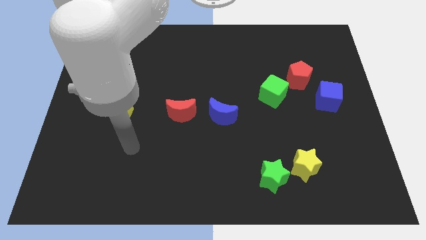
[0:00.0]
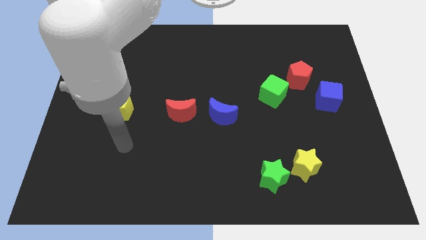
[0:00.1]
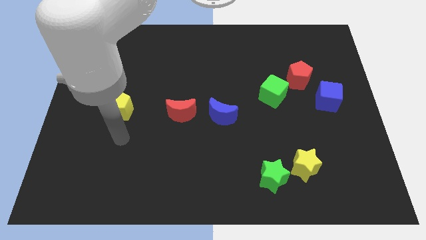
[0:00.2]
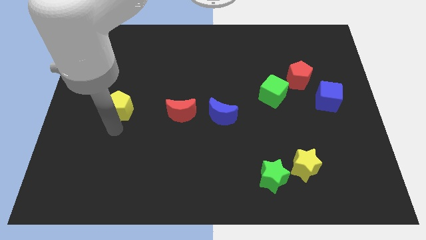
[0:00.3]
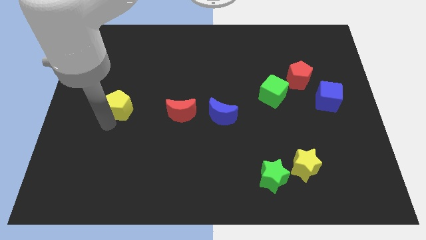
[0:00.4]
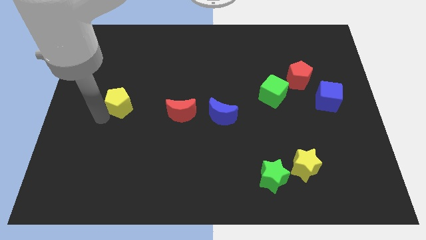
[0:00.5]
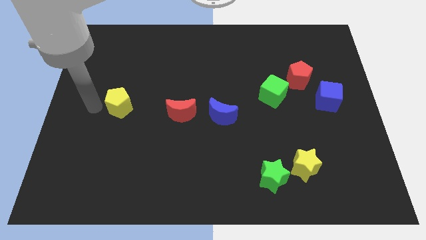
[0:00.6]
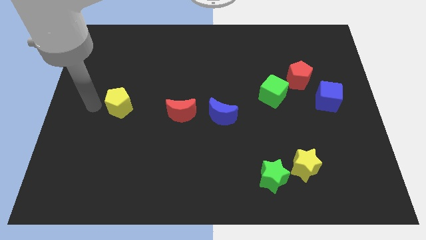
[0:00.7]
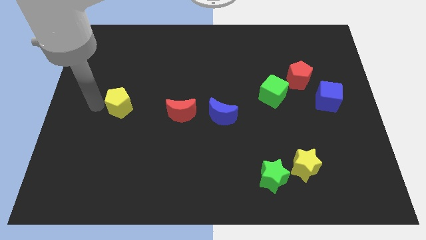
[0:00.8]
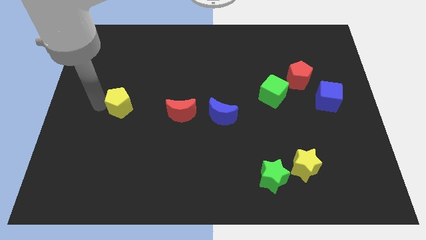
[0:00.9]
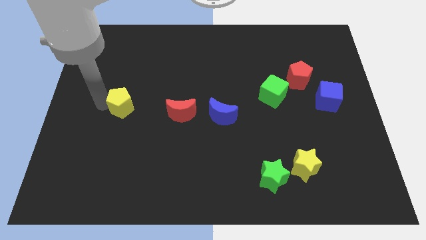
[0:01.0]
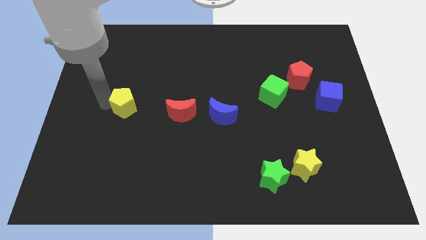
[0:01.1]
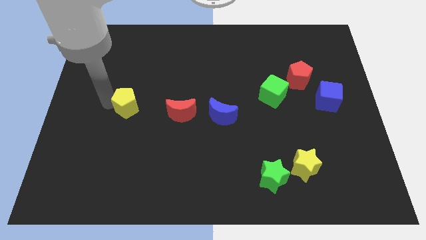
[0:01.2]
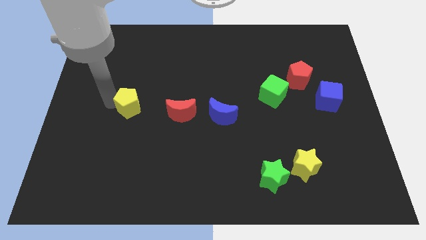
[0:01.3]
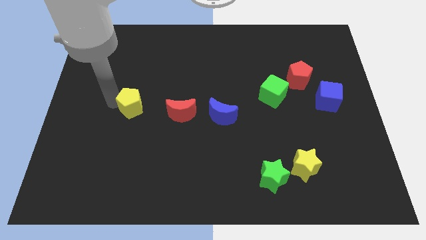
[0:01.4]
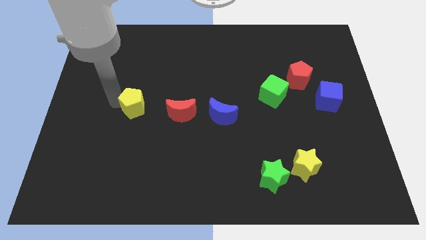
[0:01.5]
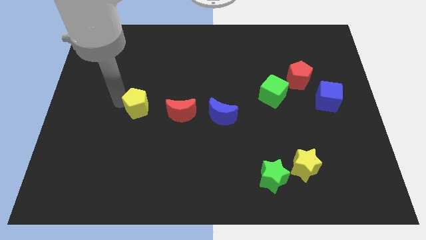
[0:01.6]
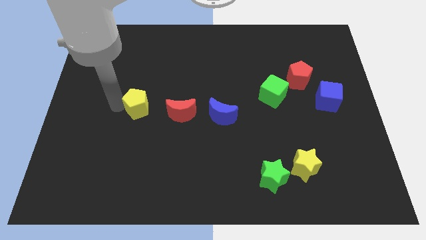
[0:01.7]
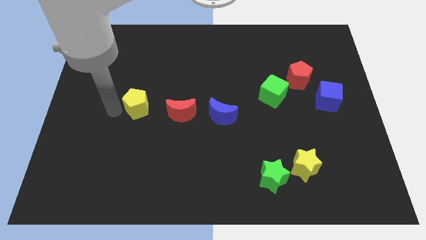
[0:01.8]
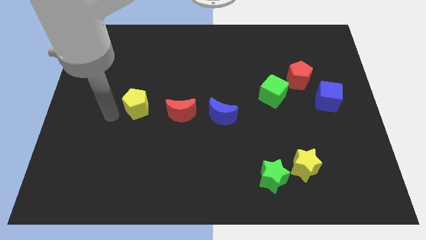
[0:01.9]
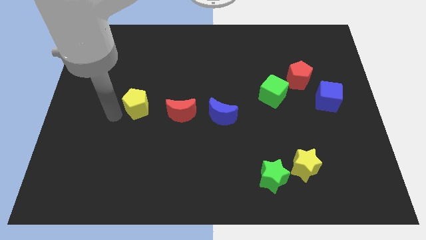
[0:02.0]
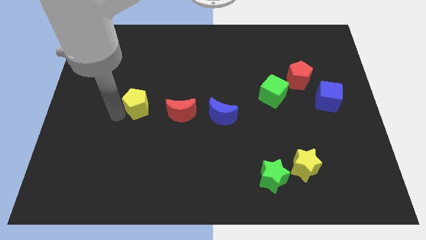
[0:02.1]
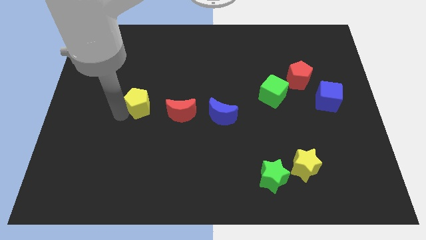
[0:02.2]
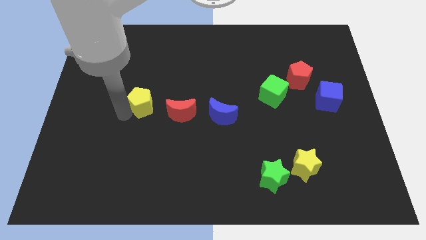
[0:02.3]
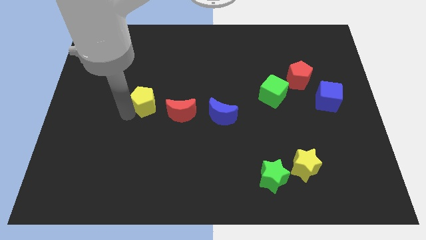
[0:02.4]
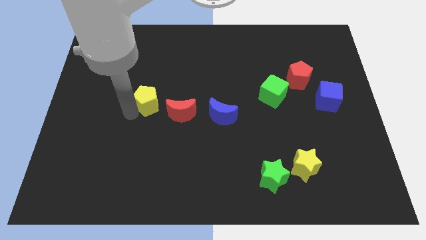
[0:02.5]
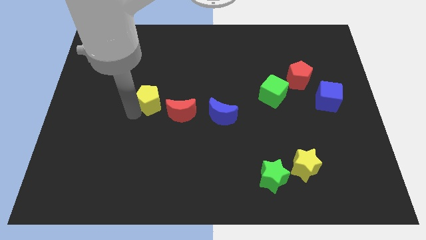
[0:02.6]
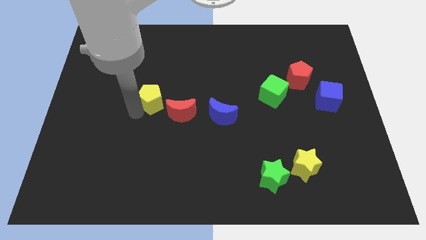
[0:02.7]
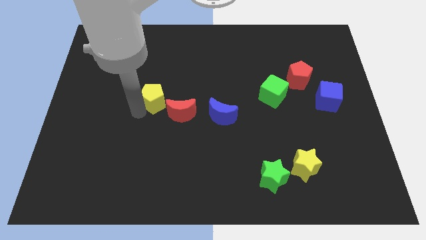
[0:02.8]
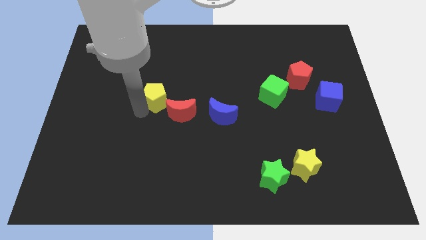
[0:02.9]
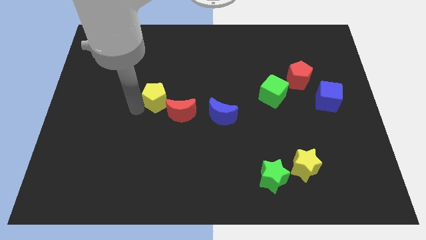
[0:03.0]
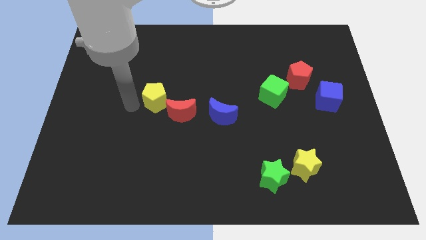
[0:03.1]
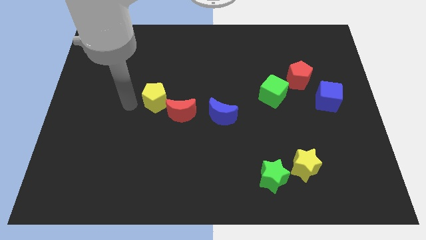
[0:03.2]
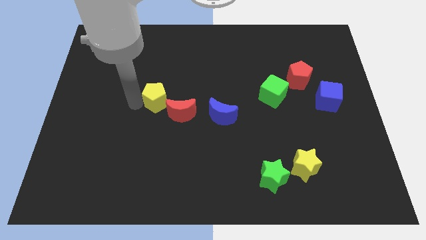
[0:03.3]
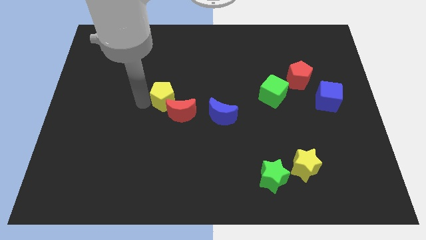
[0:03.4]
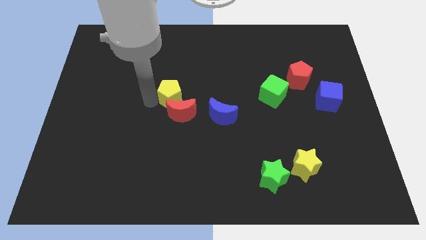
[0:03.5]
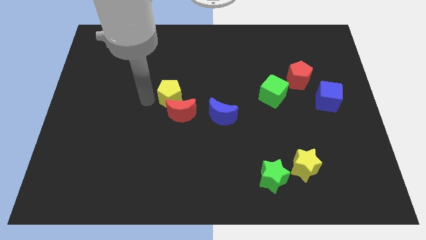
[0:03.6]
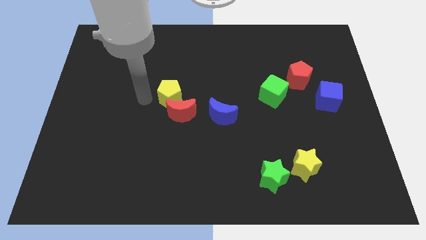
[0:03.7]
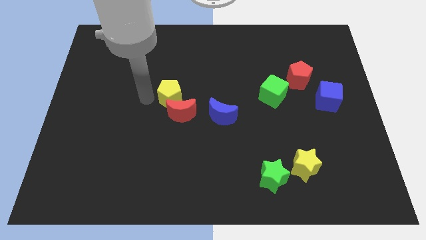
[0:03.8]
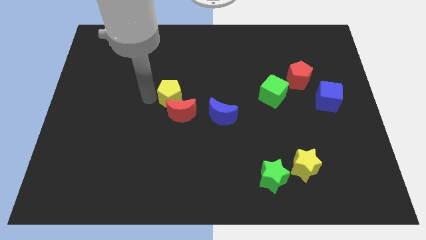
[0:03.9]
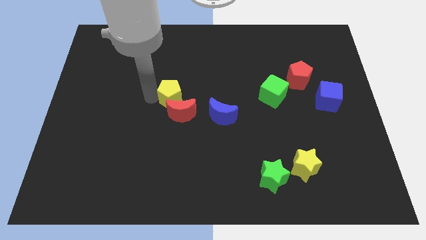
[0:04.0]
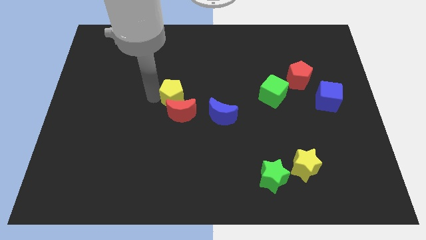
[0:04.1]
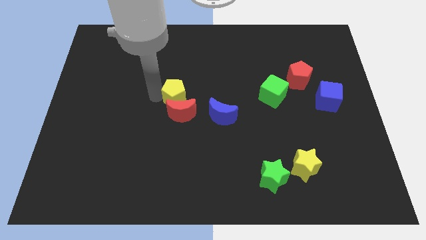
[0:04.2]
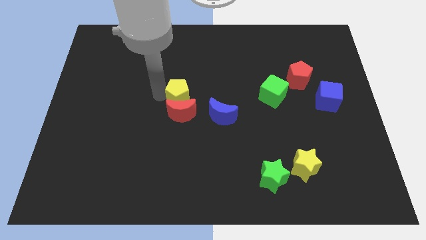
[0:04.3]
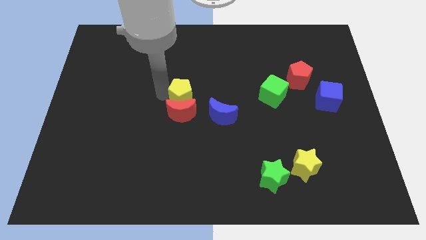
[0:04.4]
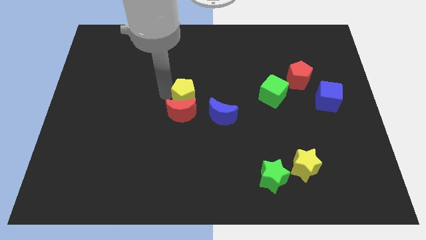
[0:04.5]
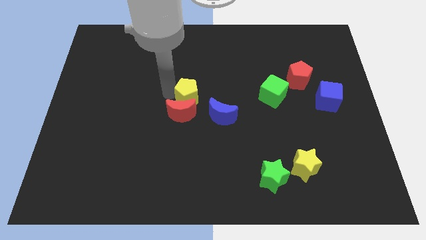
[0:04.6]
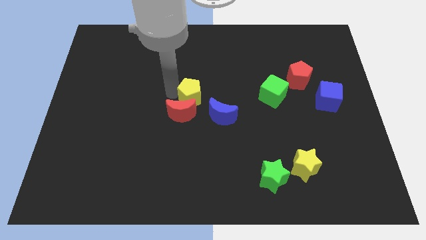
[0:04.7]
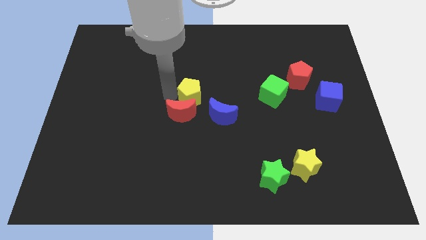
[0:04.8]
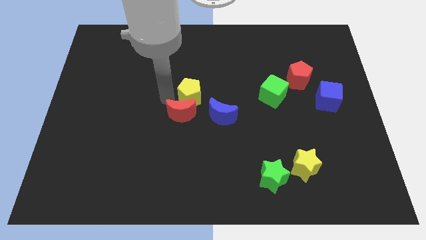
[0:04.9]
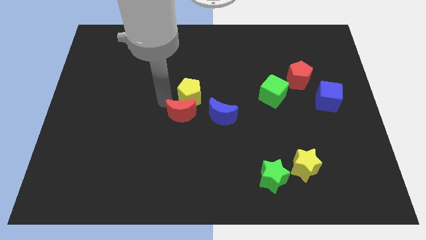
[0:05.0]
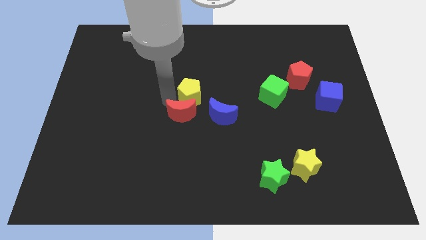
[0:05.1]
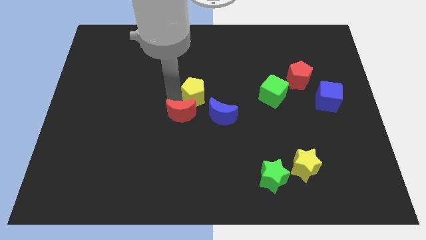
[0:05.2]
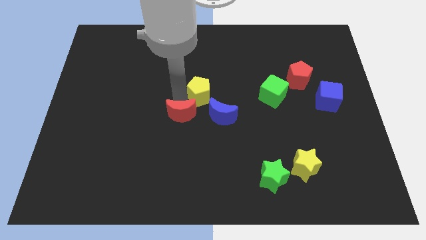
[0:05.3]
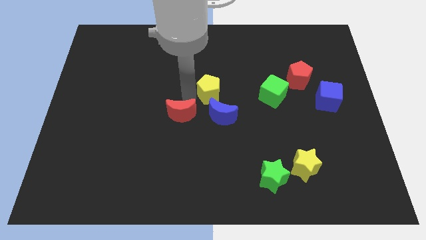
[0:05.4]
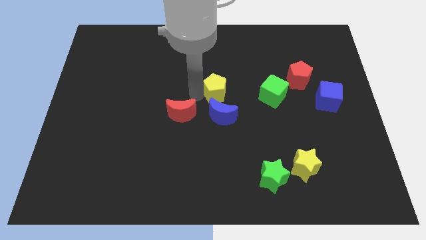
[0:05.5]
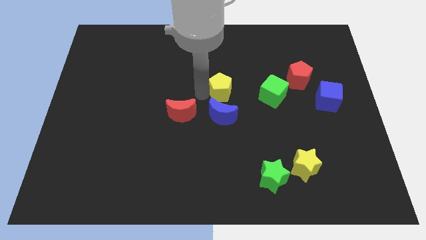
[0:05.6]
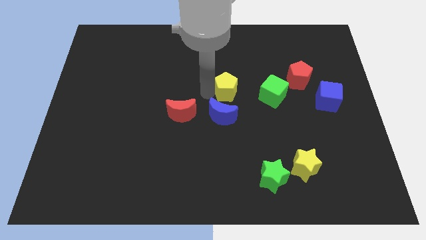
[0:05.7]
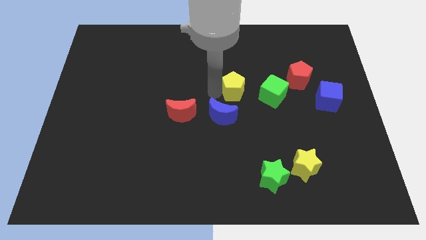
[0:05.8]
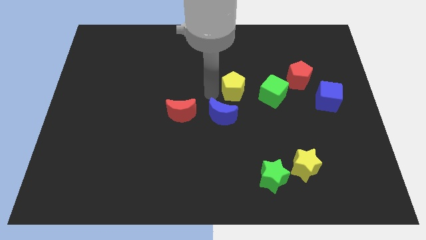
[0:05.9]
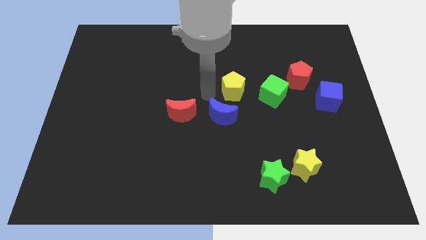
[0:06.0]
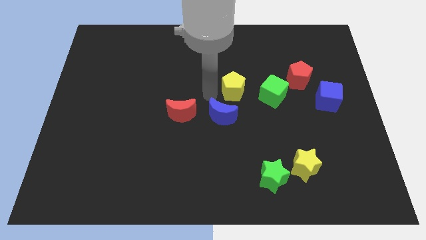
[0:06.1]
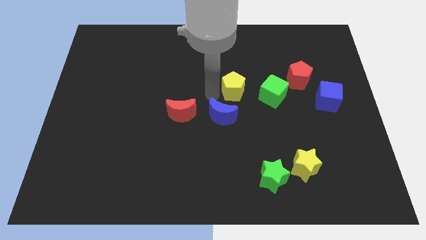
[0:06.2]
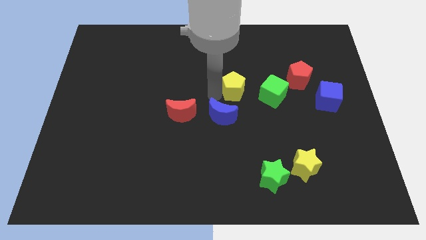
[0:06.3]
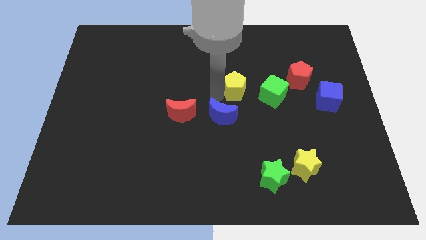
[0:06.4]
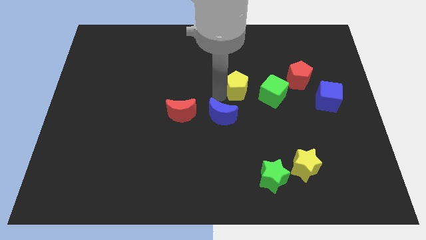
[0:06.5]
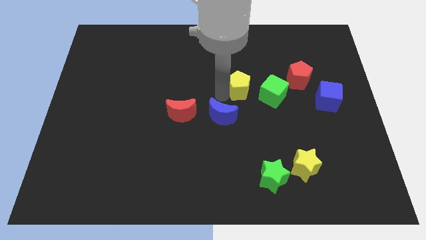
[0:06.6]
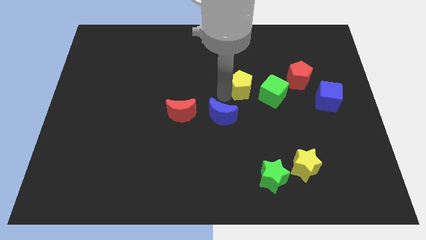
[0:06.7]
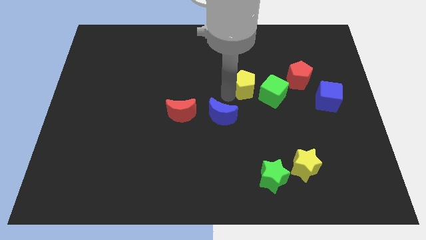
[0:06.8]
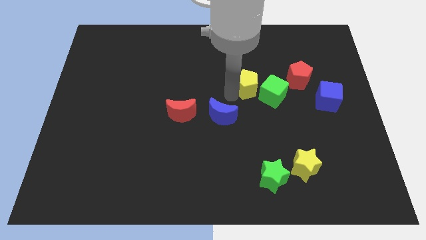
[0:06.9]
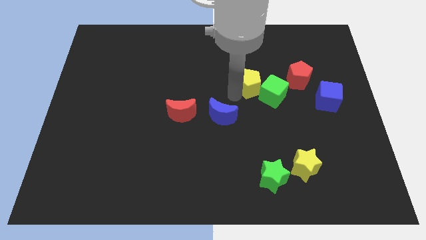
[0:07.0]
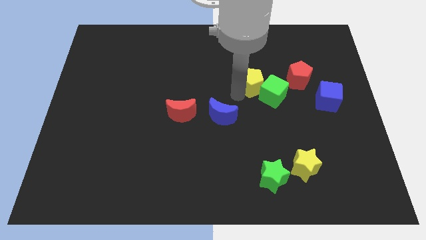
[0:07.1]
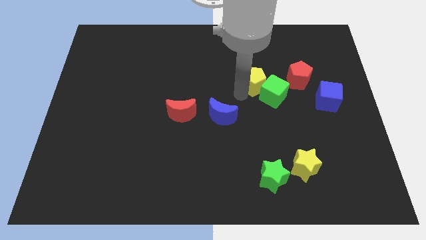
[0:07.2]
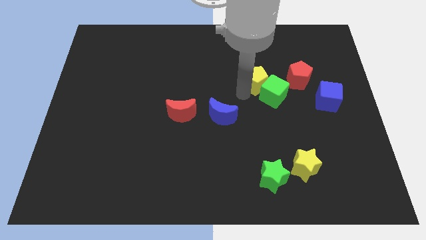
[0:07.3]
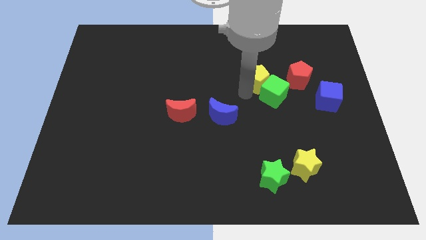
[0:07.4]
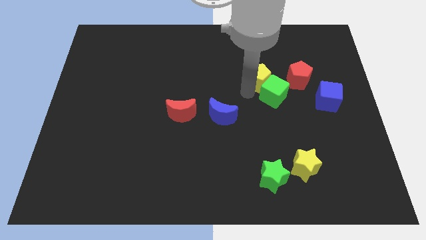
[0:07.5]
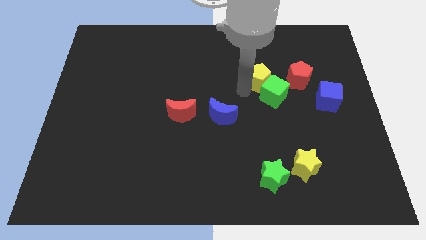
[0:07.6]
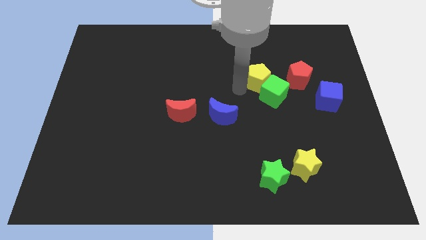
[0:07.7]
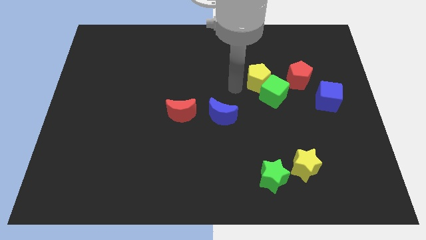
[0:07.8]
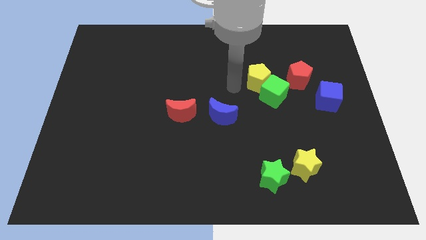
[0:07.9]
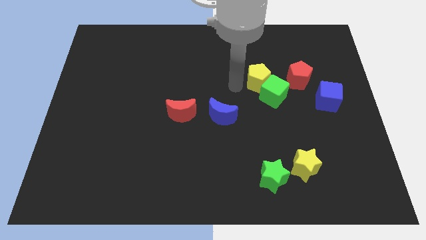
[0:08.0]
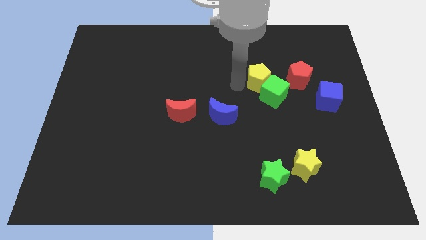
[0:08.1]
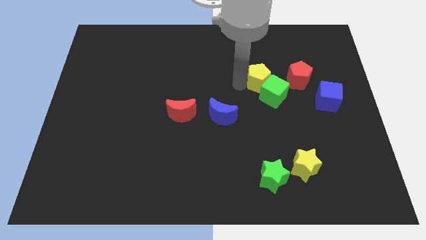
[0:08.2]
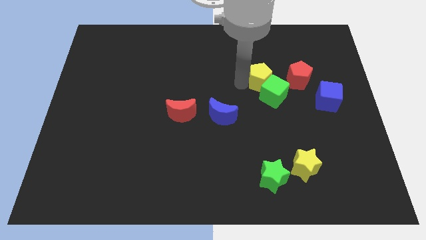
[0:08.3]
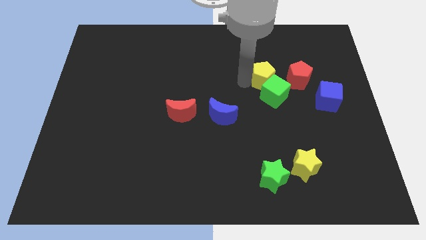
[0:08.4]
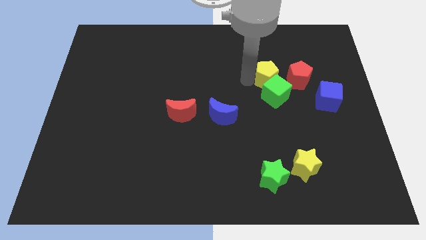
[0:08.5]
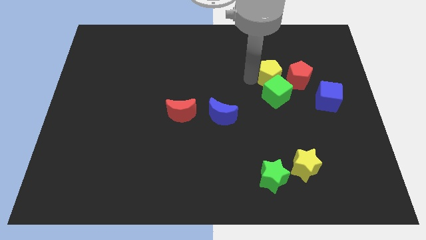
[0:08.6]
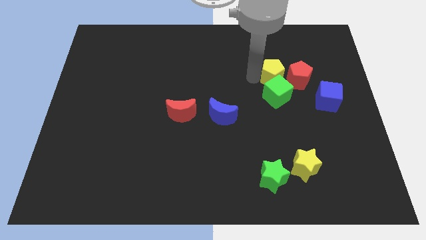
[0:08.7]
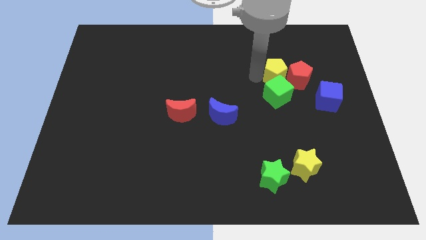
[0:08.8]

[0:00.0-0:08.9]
slide the yellow pentagon towards the red pentagon
